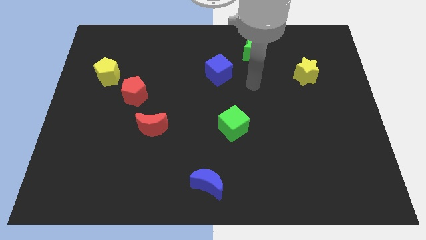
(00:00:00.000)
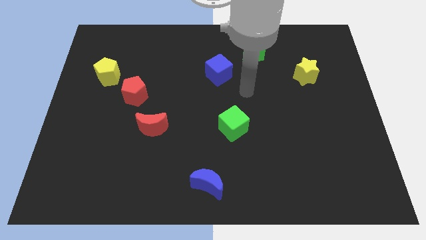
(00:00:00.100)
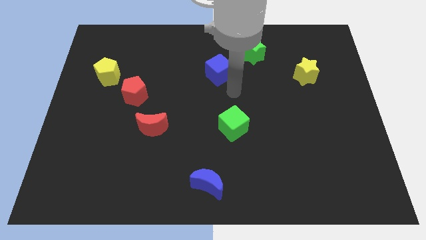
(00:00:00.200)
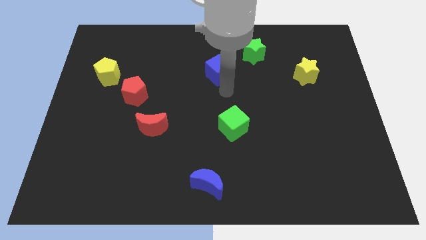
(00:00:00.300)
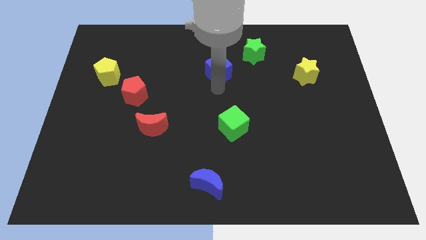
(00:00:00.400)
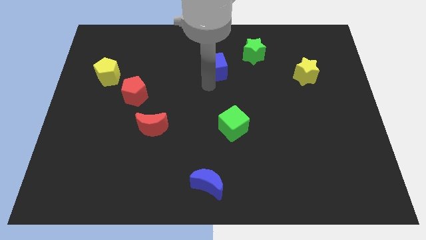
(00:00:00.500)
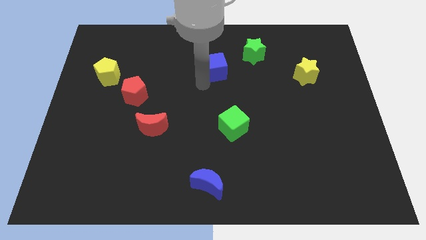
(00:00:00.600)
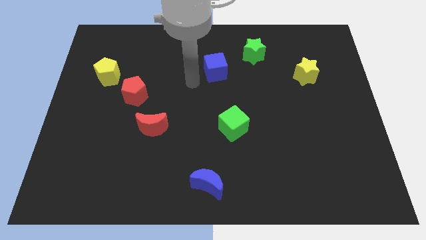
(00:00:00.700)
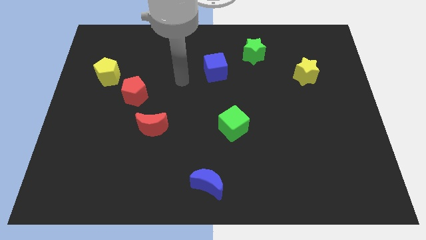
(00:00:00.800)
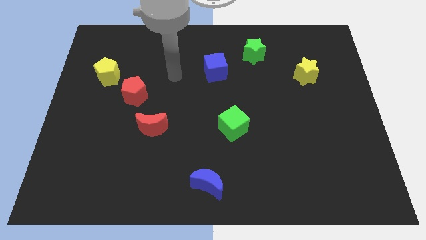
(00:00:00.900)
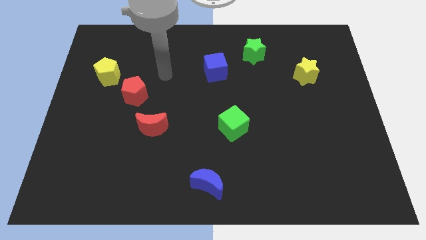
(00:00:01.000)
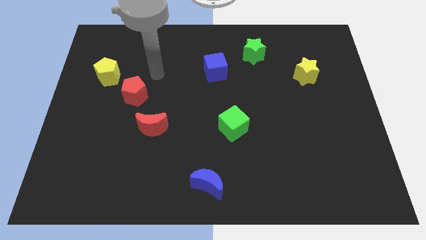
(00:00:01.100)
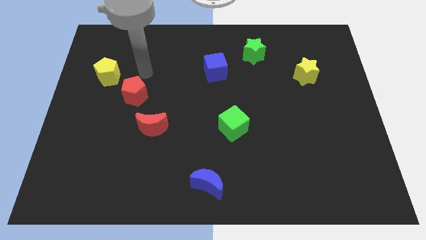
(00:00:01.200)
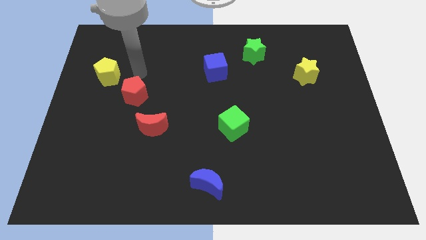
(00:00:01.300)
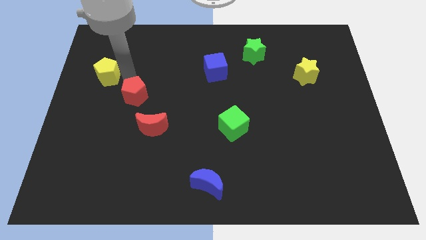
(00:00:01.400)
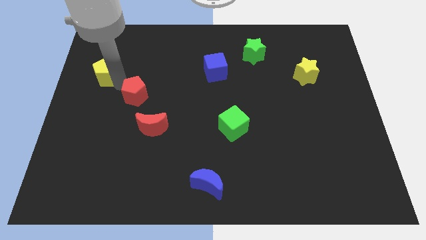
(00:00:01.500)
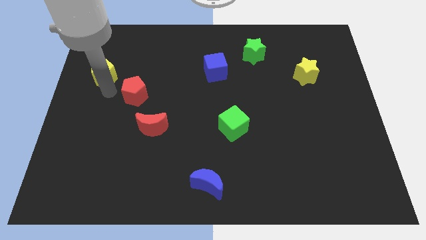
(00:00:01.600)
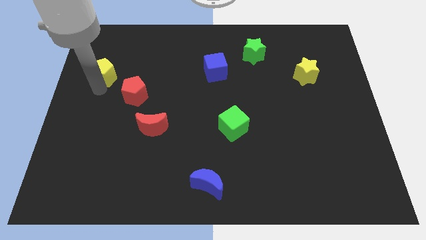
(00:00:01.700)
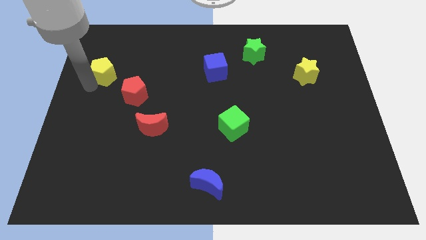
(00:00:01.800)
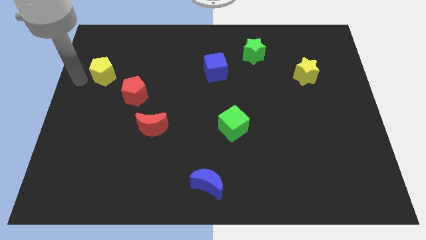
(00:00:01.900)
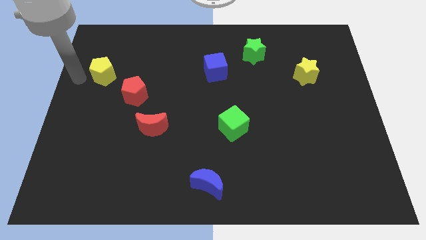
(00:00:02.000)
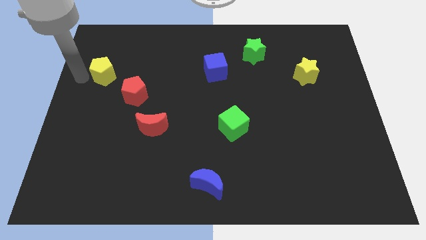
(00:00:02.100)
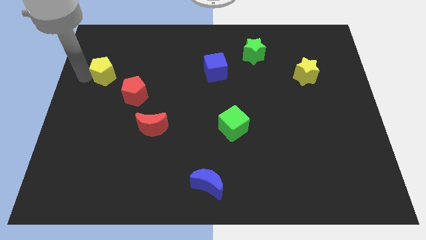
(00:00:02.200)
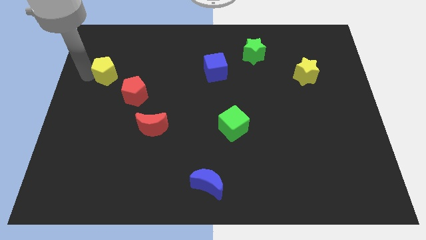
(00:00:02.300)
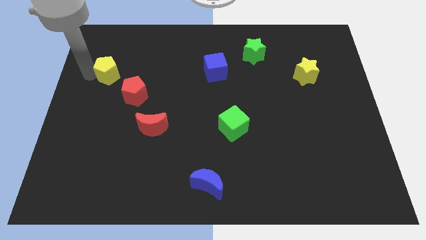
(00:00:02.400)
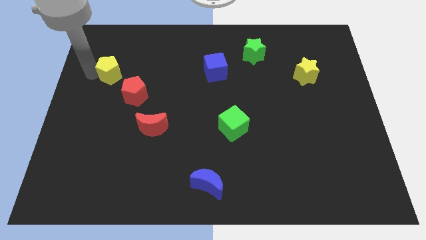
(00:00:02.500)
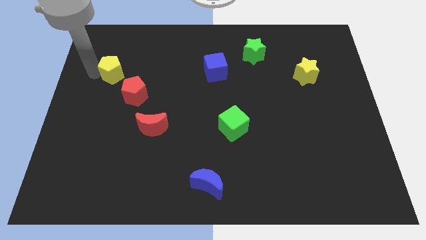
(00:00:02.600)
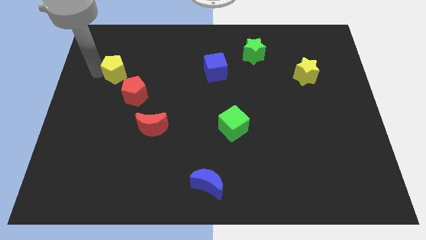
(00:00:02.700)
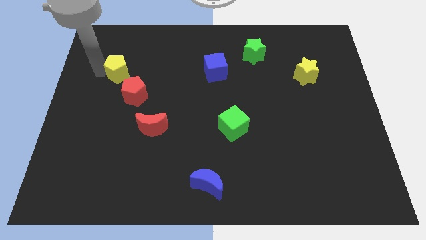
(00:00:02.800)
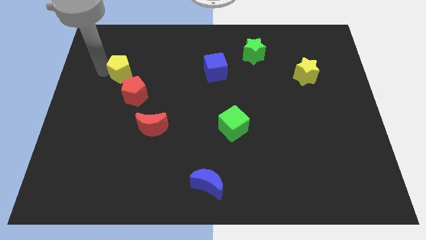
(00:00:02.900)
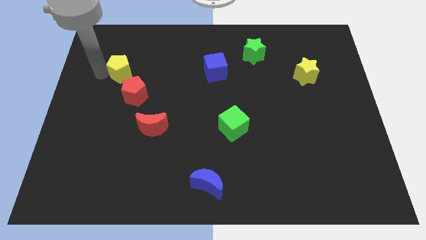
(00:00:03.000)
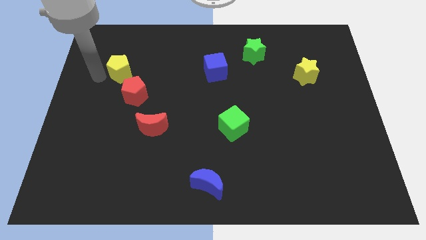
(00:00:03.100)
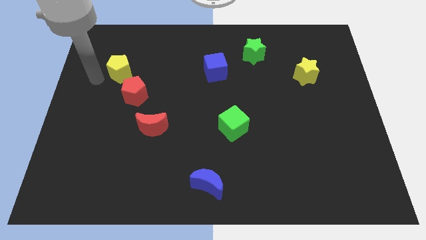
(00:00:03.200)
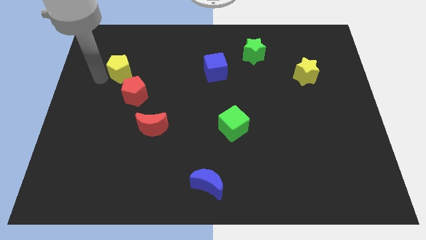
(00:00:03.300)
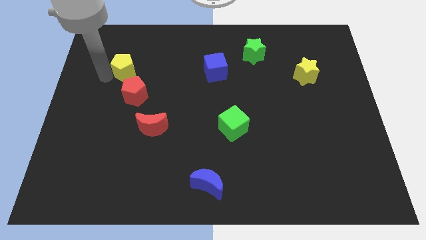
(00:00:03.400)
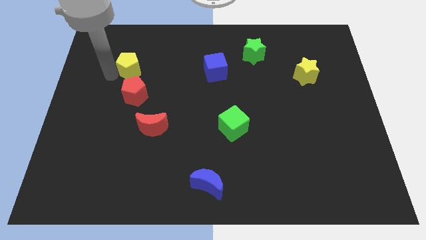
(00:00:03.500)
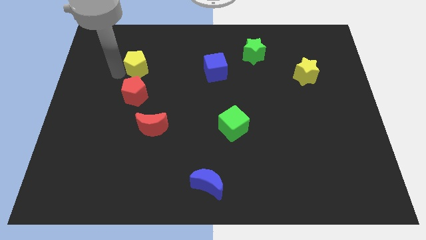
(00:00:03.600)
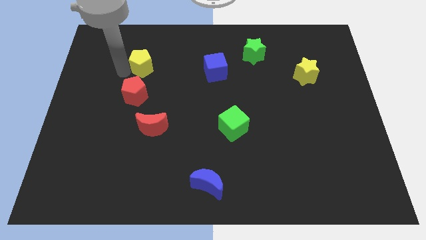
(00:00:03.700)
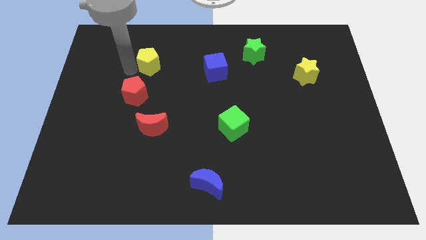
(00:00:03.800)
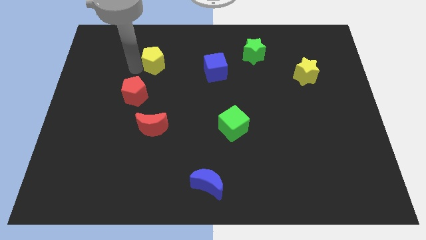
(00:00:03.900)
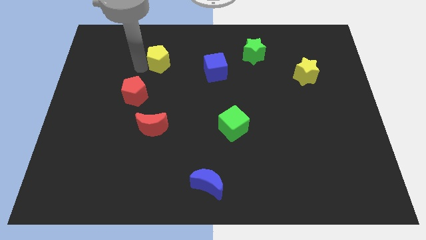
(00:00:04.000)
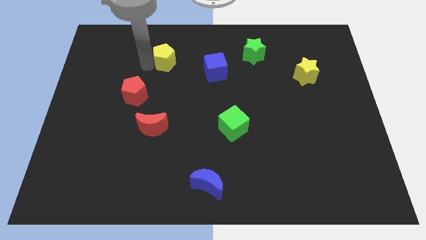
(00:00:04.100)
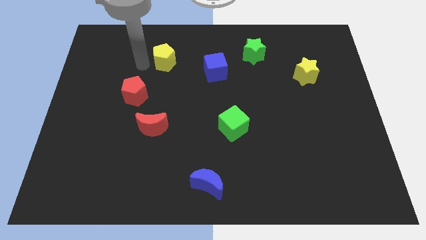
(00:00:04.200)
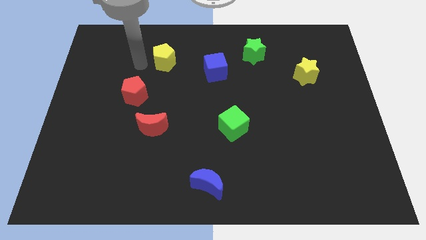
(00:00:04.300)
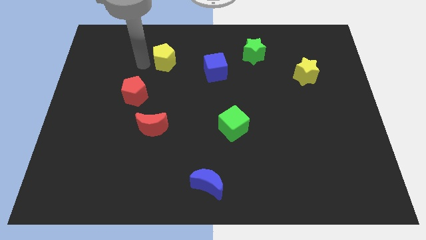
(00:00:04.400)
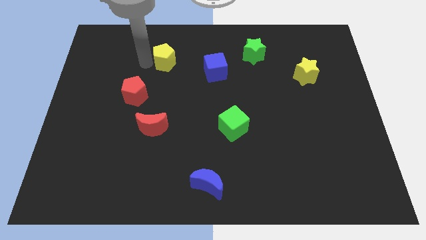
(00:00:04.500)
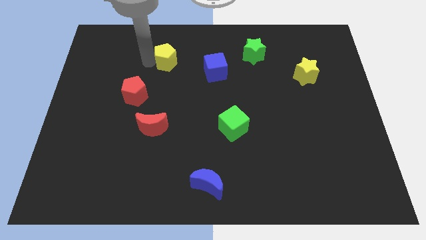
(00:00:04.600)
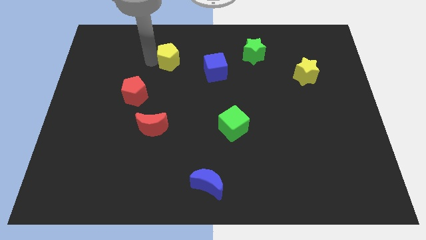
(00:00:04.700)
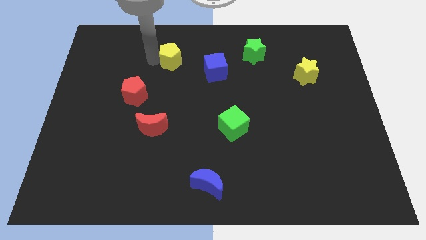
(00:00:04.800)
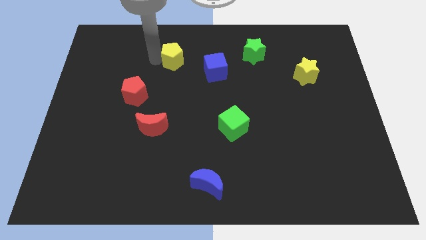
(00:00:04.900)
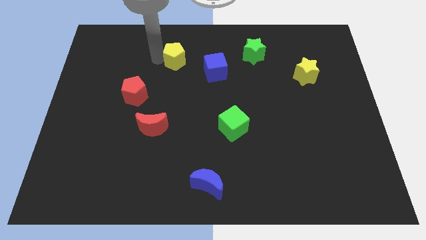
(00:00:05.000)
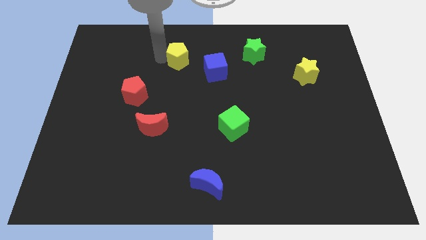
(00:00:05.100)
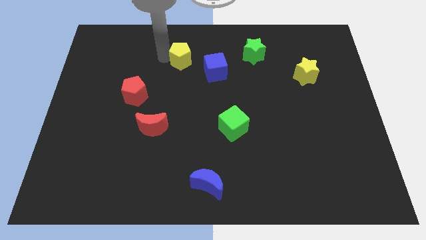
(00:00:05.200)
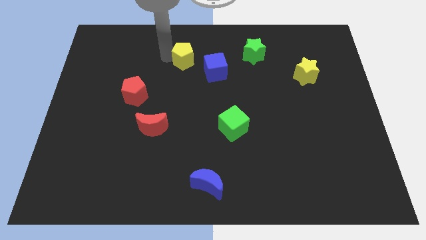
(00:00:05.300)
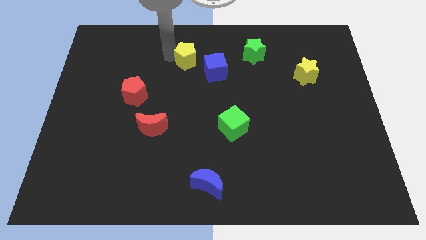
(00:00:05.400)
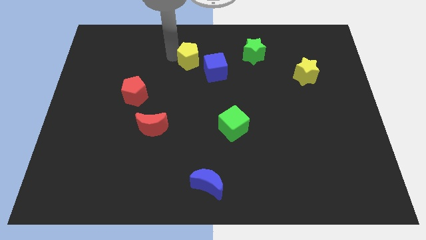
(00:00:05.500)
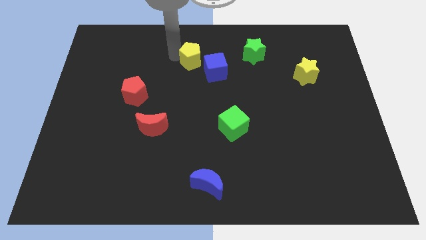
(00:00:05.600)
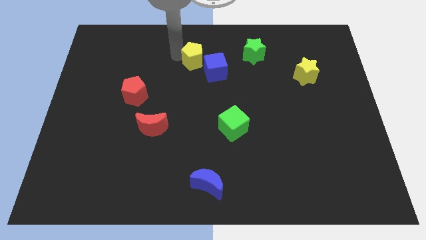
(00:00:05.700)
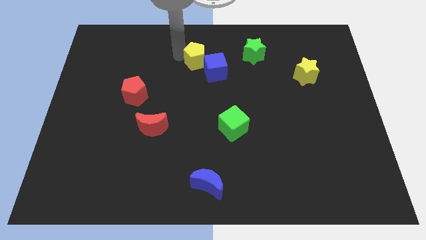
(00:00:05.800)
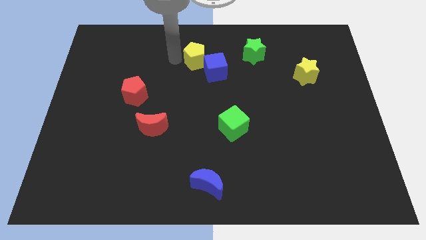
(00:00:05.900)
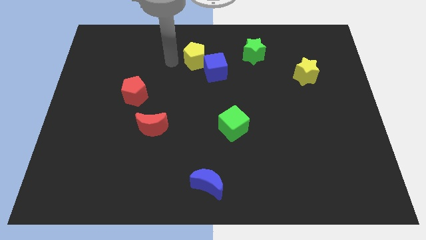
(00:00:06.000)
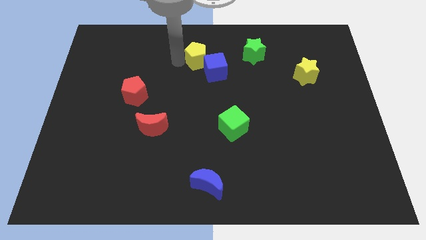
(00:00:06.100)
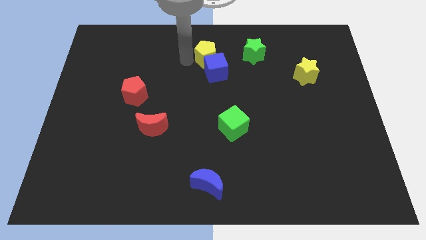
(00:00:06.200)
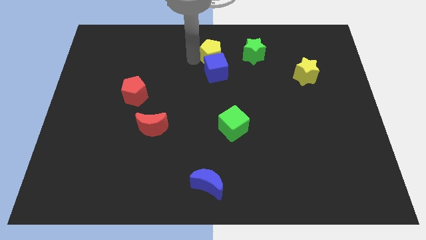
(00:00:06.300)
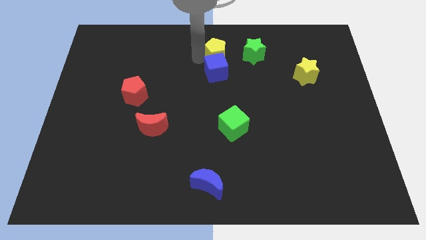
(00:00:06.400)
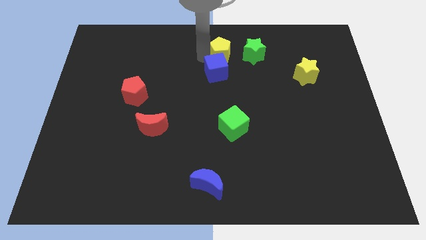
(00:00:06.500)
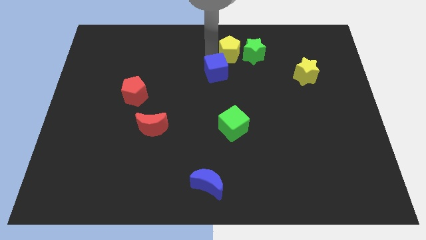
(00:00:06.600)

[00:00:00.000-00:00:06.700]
push the yellow pentagon to the green star

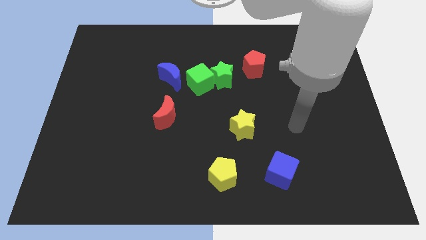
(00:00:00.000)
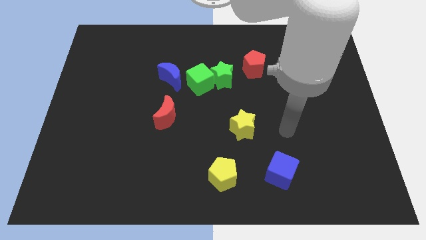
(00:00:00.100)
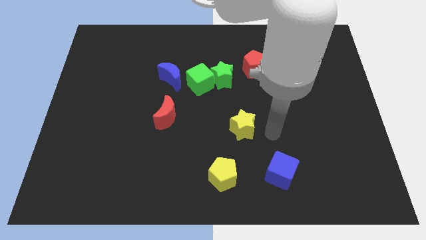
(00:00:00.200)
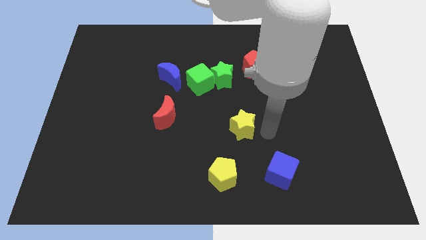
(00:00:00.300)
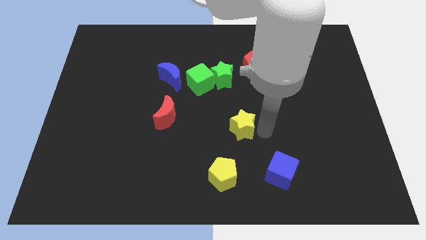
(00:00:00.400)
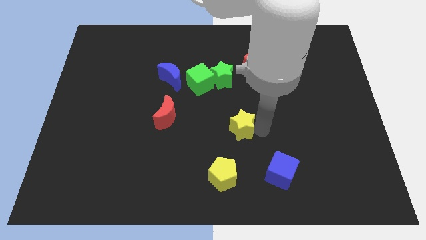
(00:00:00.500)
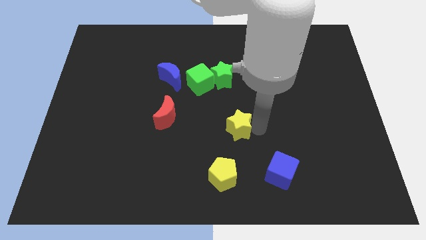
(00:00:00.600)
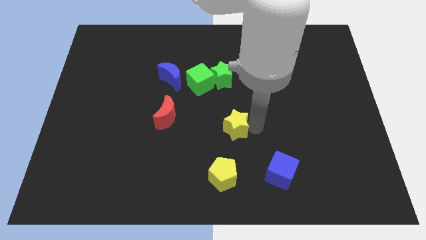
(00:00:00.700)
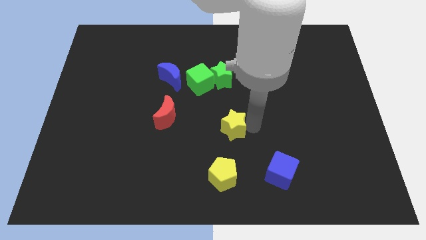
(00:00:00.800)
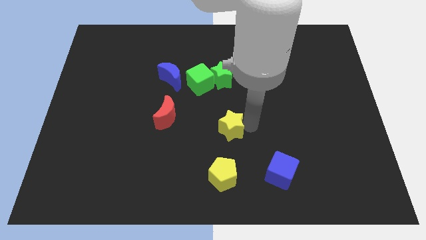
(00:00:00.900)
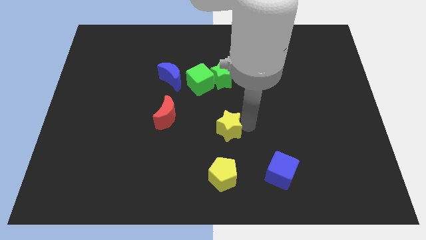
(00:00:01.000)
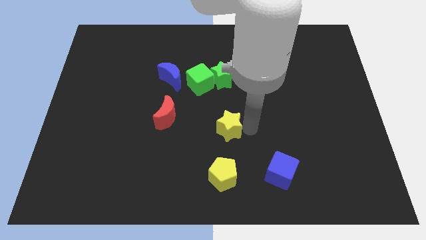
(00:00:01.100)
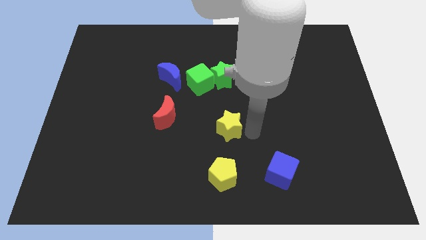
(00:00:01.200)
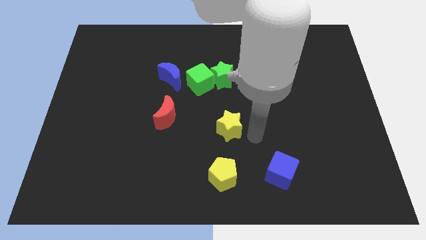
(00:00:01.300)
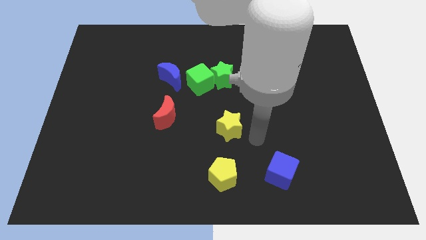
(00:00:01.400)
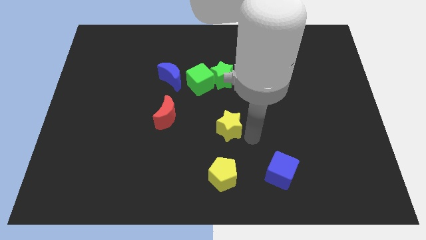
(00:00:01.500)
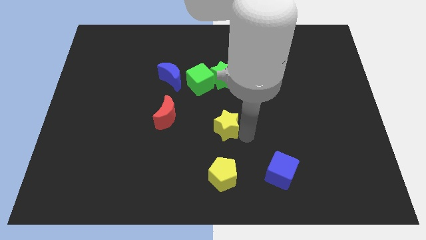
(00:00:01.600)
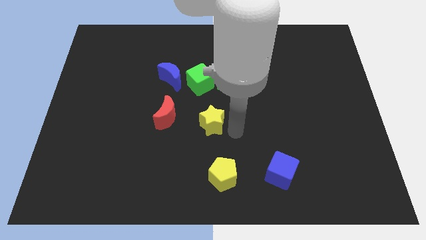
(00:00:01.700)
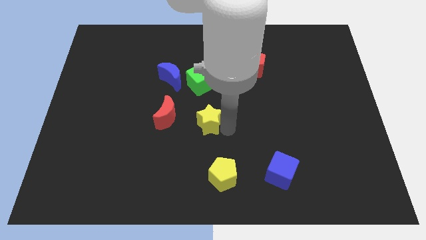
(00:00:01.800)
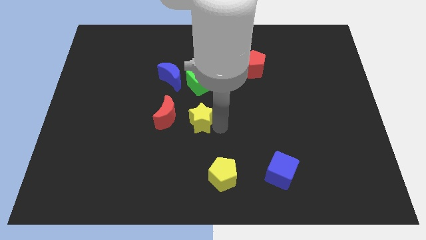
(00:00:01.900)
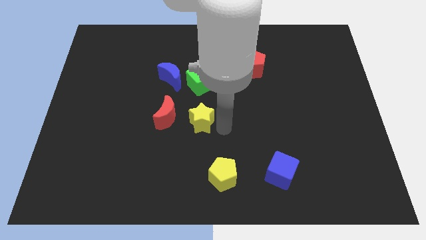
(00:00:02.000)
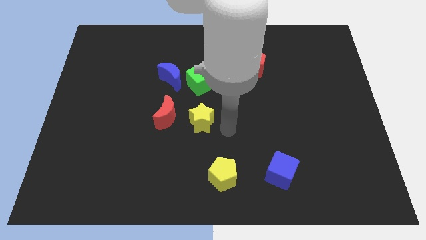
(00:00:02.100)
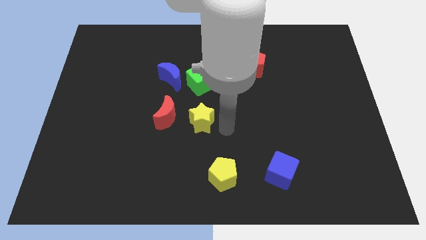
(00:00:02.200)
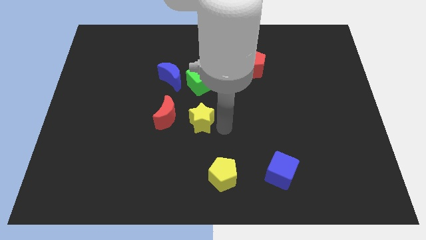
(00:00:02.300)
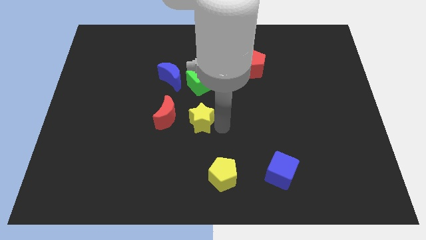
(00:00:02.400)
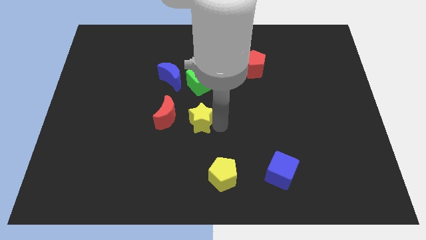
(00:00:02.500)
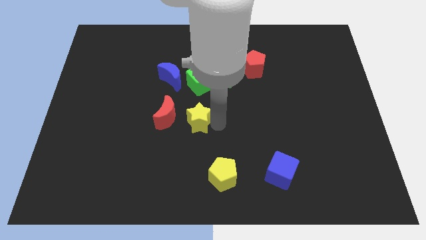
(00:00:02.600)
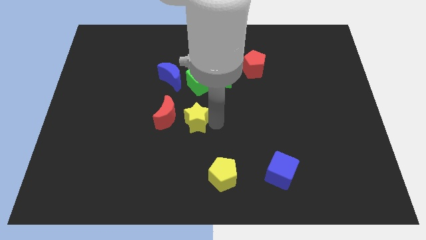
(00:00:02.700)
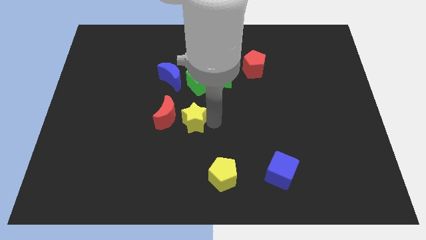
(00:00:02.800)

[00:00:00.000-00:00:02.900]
push the yellow star towards the red moon
